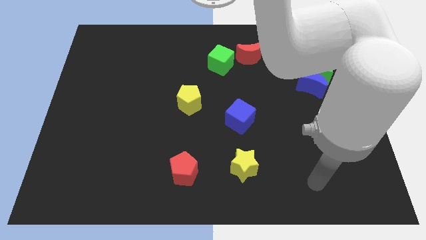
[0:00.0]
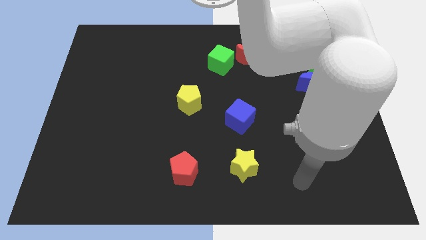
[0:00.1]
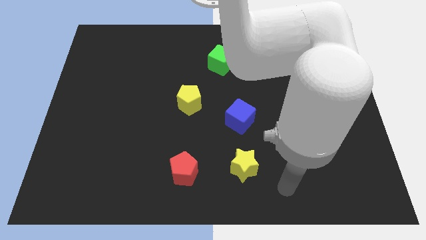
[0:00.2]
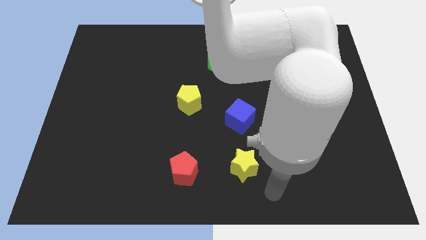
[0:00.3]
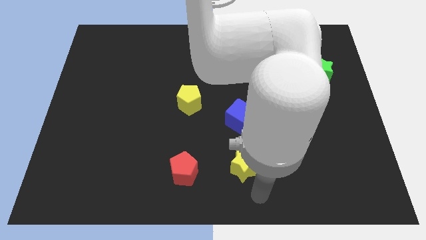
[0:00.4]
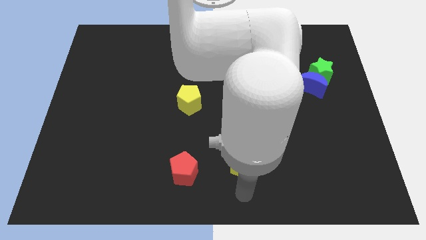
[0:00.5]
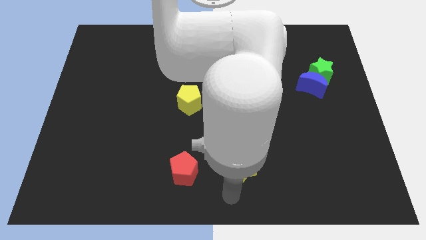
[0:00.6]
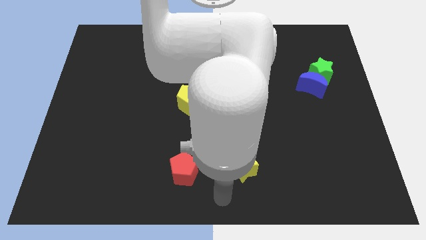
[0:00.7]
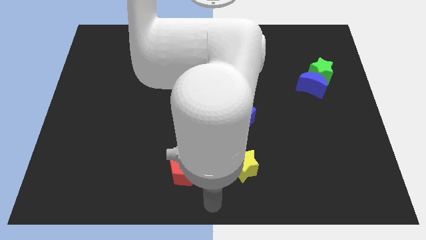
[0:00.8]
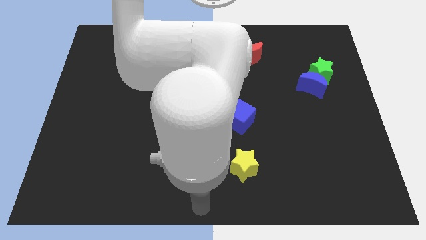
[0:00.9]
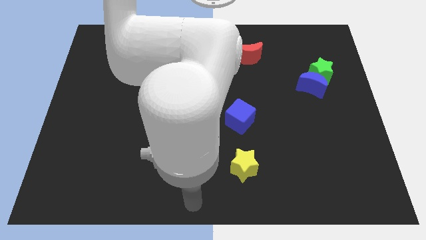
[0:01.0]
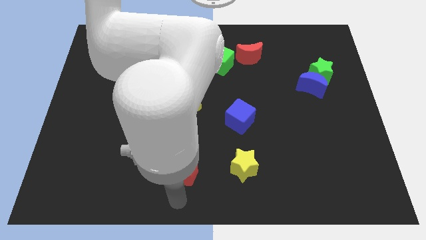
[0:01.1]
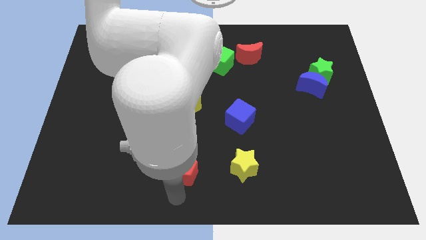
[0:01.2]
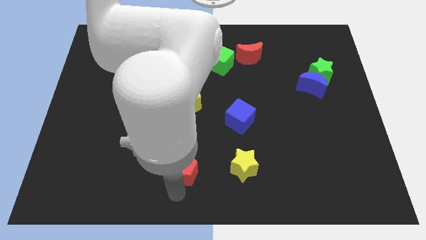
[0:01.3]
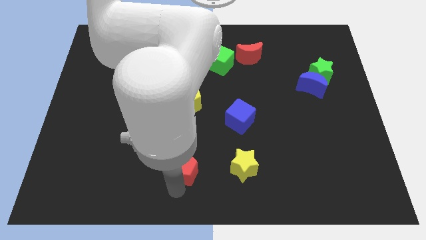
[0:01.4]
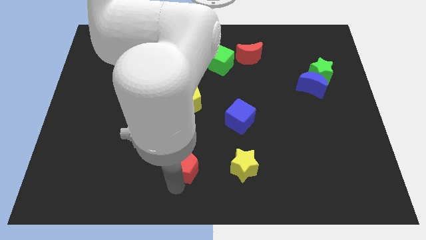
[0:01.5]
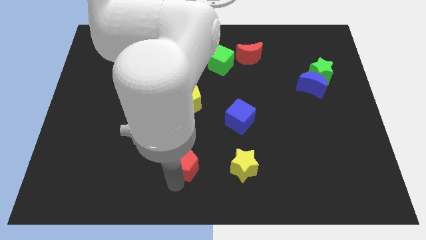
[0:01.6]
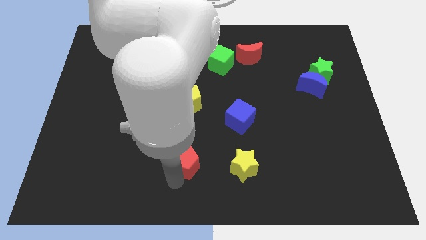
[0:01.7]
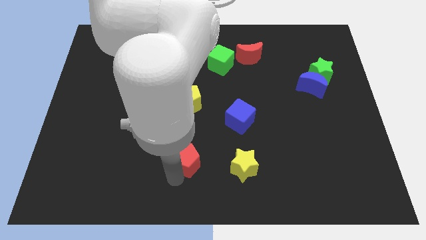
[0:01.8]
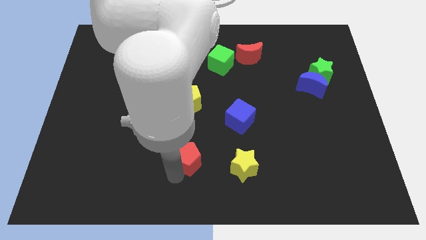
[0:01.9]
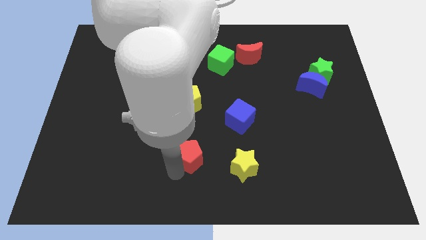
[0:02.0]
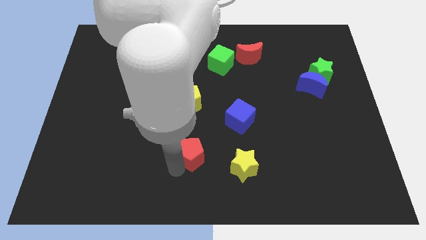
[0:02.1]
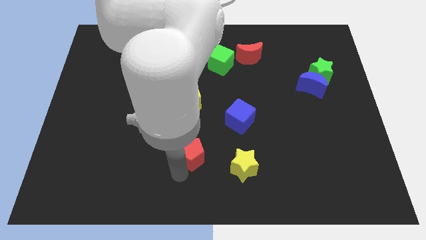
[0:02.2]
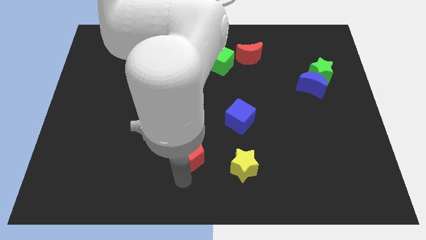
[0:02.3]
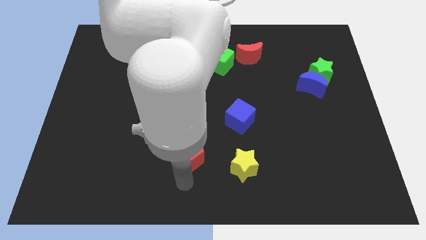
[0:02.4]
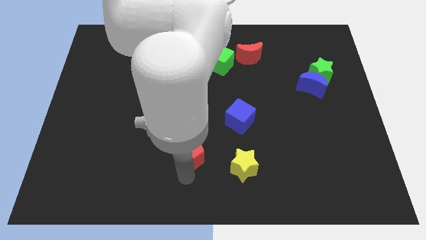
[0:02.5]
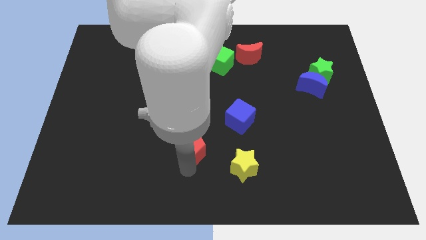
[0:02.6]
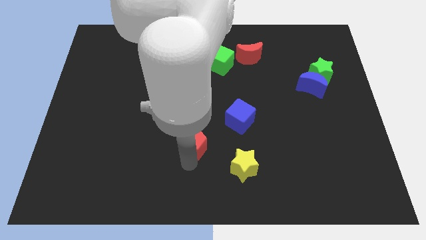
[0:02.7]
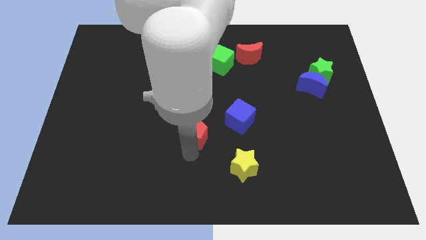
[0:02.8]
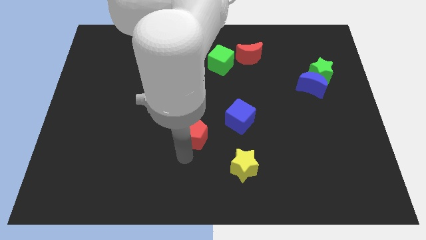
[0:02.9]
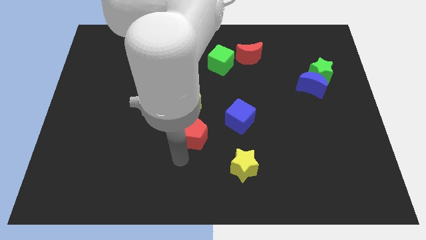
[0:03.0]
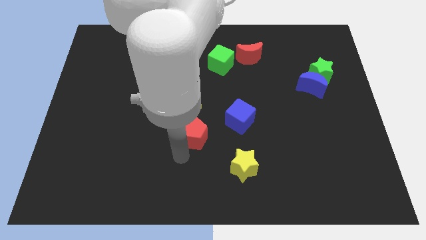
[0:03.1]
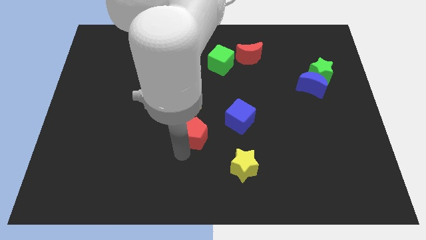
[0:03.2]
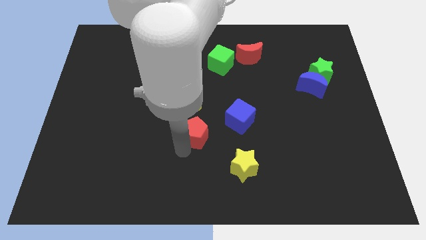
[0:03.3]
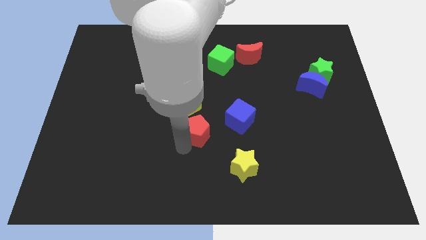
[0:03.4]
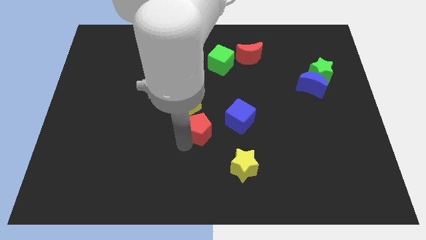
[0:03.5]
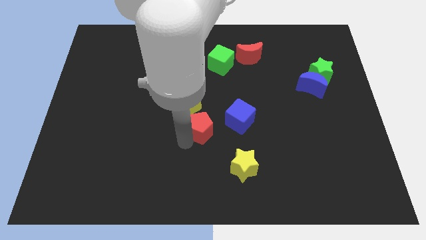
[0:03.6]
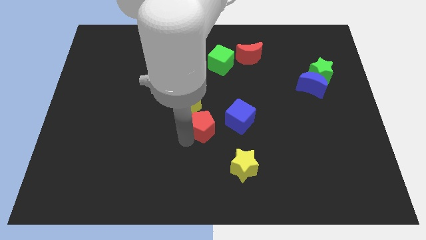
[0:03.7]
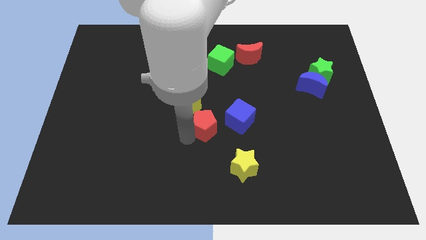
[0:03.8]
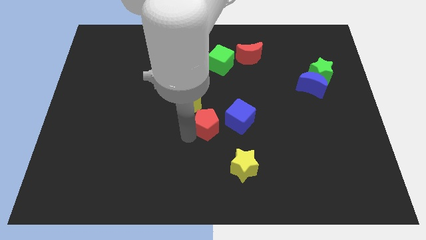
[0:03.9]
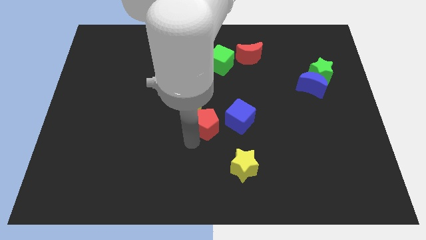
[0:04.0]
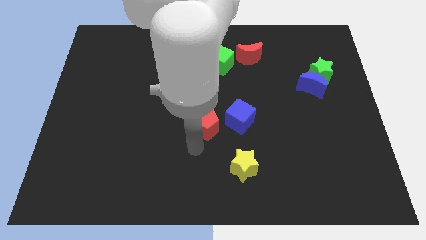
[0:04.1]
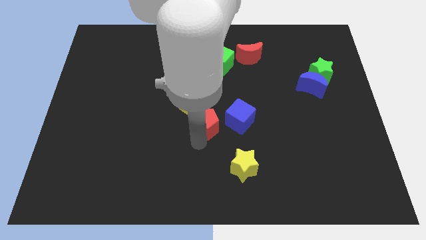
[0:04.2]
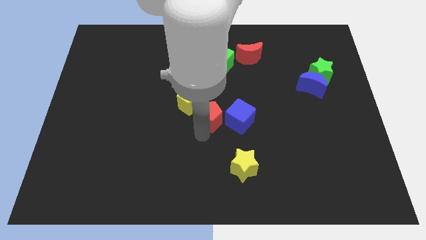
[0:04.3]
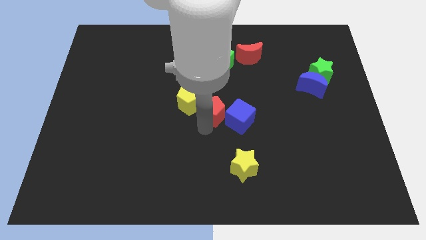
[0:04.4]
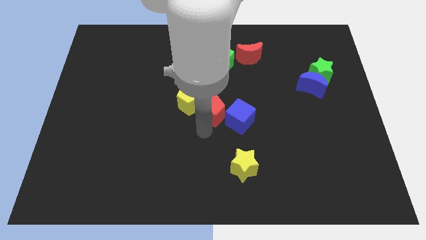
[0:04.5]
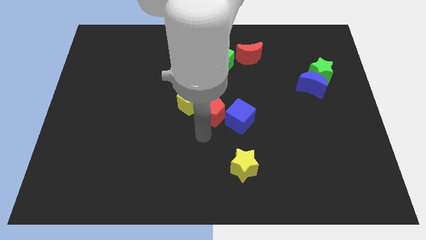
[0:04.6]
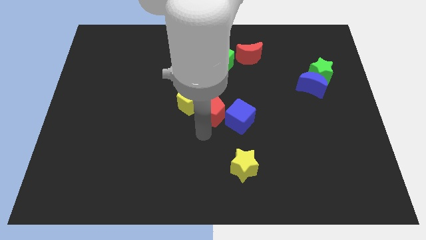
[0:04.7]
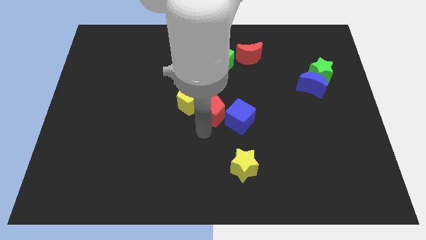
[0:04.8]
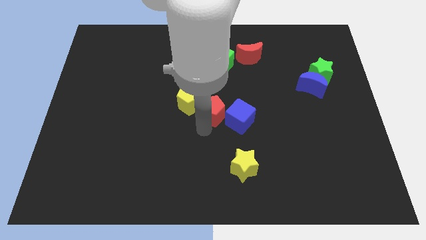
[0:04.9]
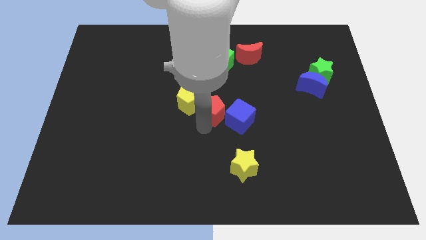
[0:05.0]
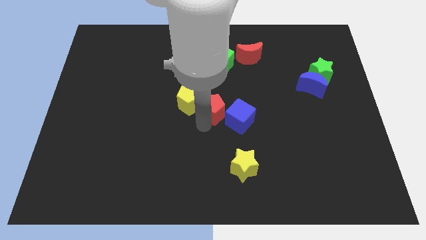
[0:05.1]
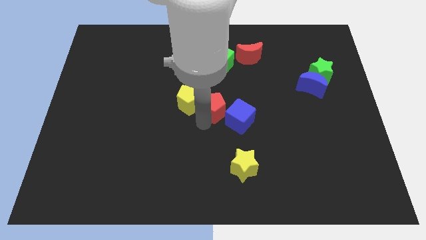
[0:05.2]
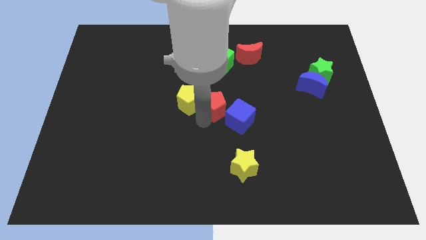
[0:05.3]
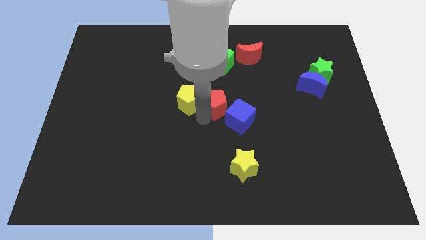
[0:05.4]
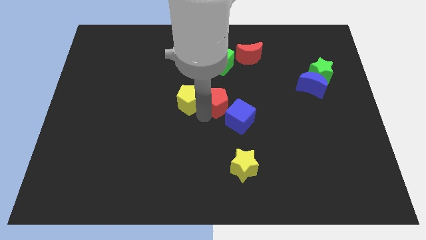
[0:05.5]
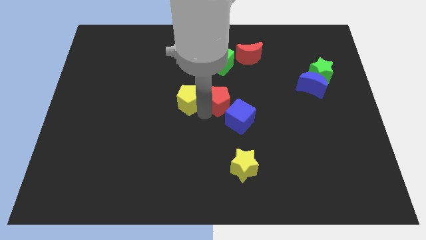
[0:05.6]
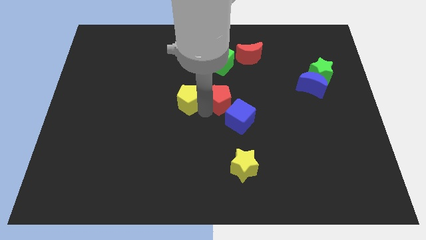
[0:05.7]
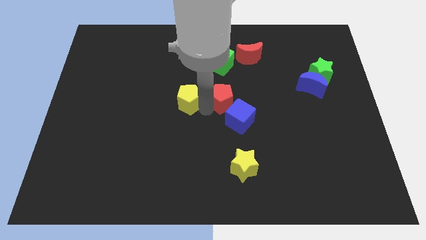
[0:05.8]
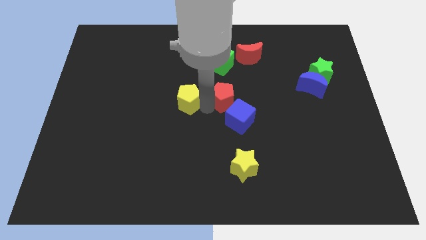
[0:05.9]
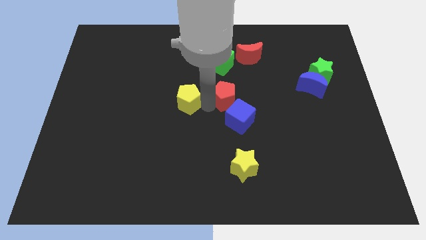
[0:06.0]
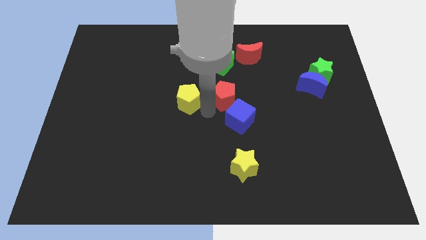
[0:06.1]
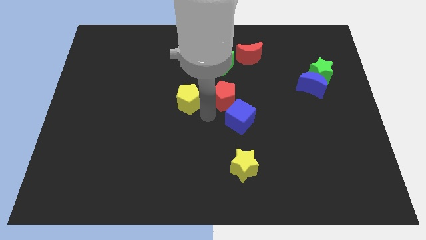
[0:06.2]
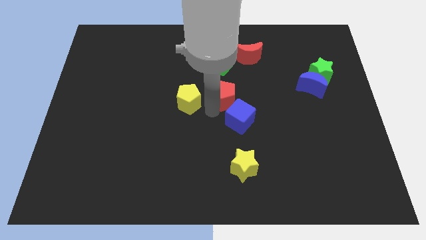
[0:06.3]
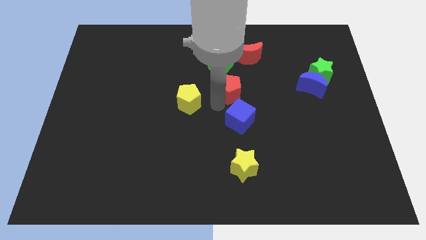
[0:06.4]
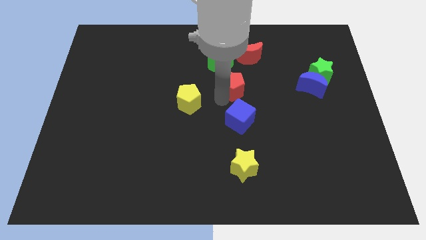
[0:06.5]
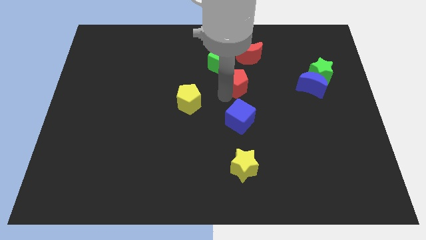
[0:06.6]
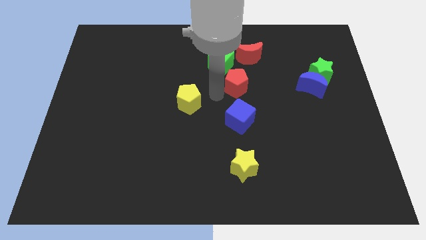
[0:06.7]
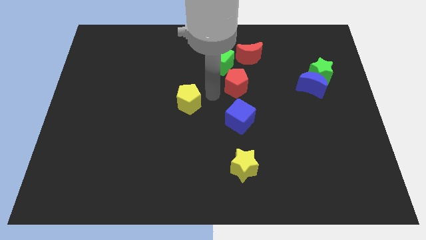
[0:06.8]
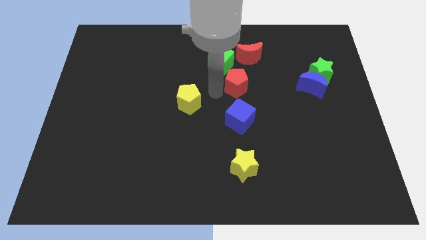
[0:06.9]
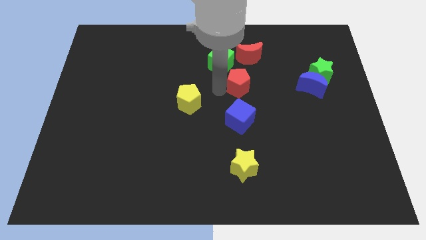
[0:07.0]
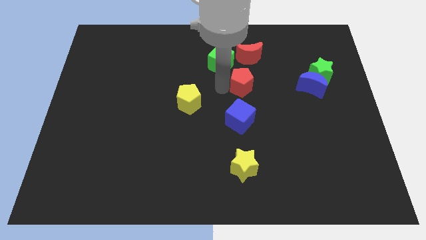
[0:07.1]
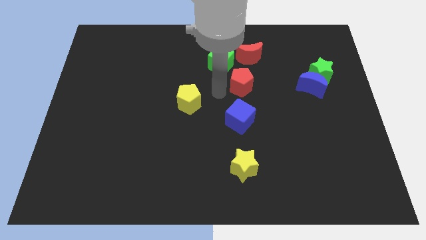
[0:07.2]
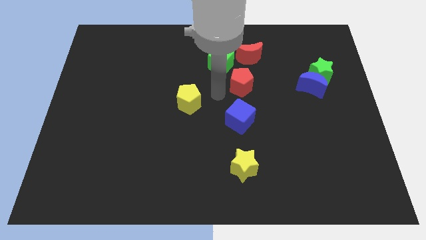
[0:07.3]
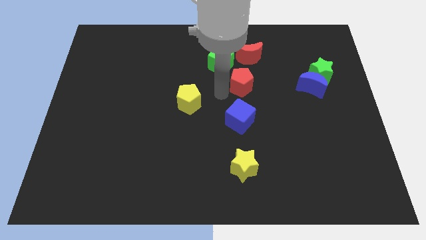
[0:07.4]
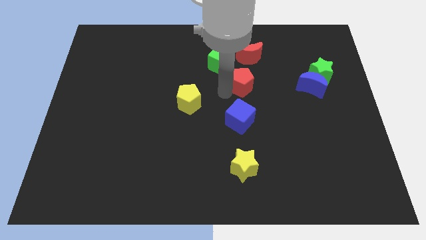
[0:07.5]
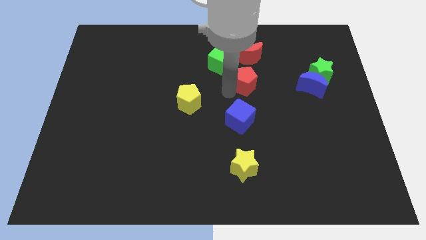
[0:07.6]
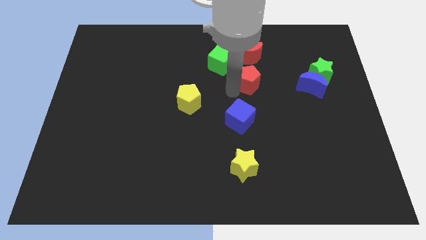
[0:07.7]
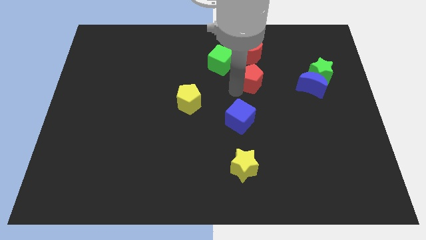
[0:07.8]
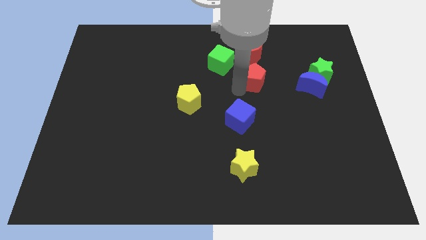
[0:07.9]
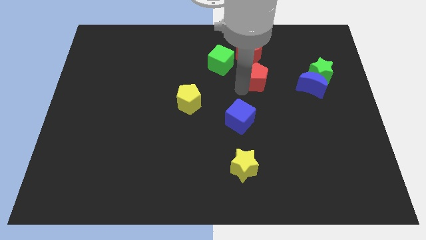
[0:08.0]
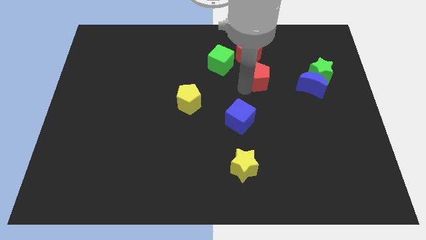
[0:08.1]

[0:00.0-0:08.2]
put the red pentagon to the bottom right side of the red moon
